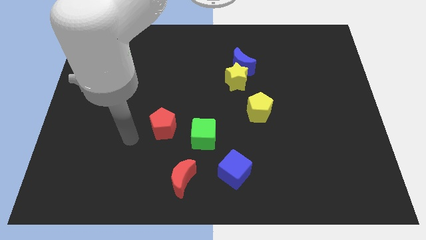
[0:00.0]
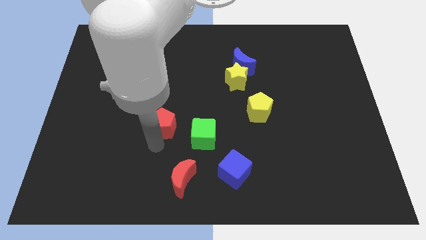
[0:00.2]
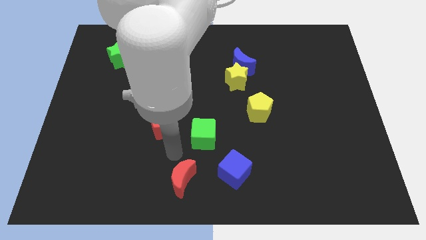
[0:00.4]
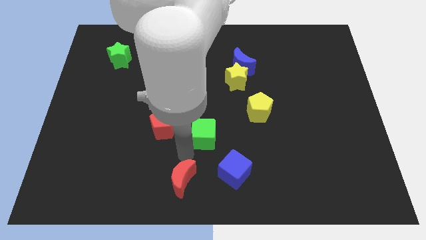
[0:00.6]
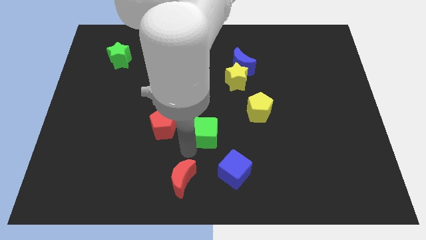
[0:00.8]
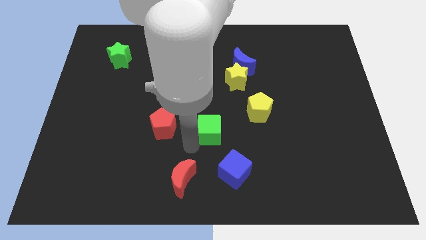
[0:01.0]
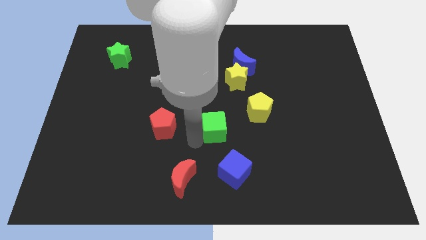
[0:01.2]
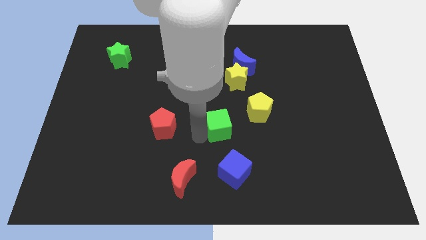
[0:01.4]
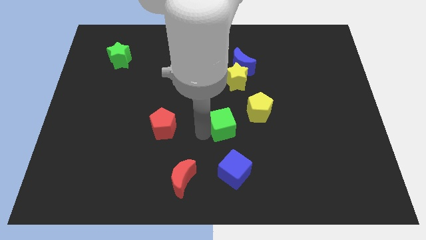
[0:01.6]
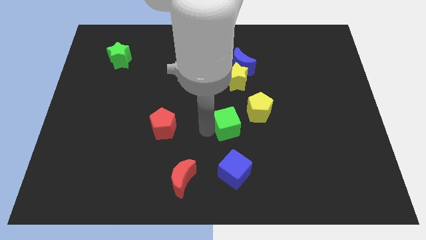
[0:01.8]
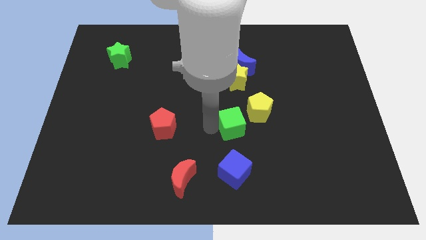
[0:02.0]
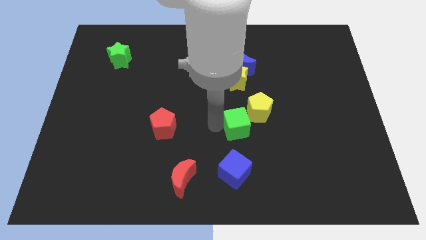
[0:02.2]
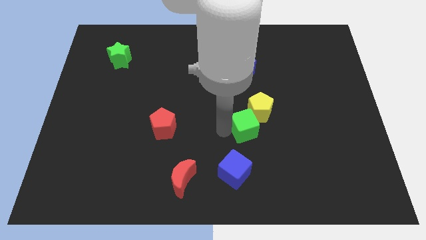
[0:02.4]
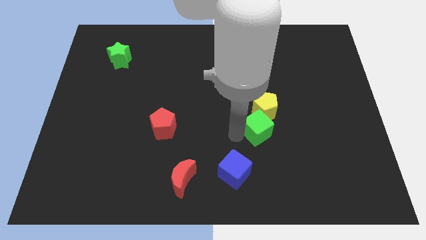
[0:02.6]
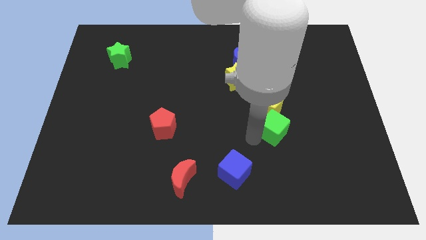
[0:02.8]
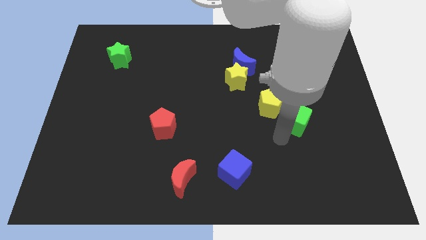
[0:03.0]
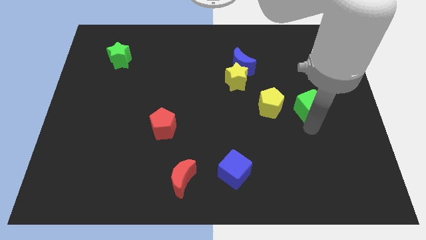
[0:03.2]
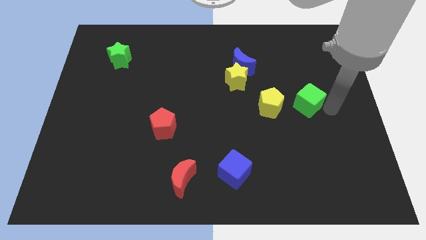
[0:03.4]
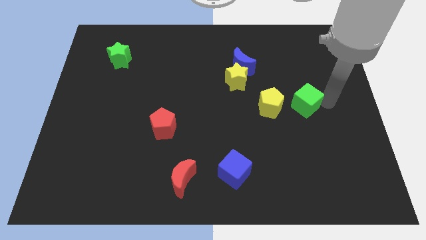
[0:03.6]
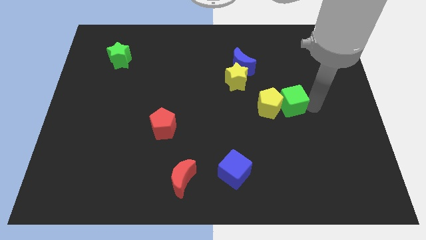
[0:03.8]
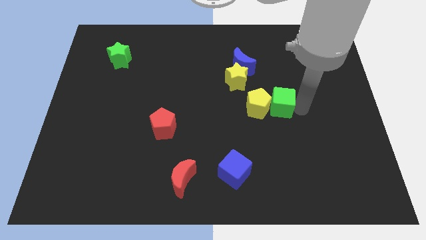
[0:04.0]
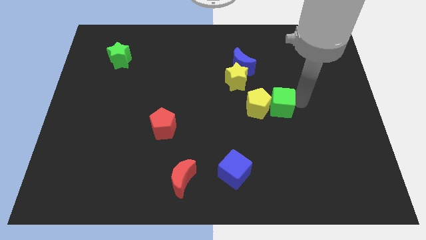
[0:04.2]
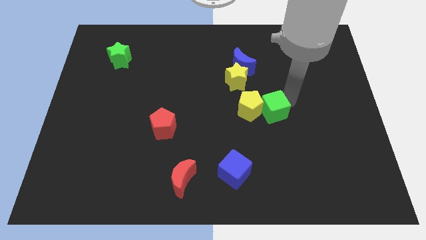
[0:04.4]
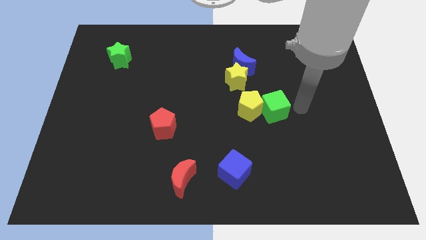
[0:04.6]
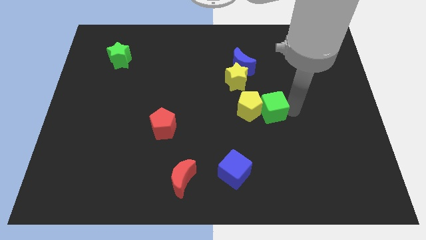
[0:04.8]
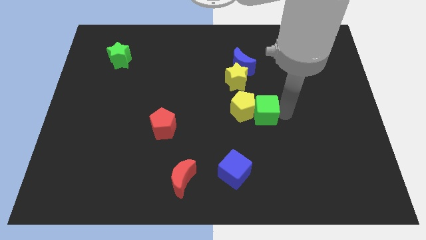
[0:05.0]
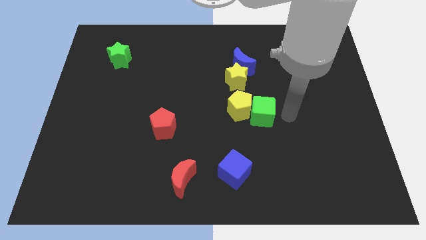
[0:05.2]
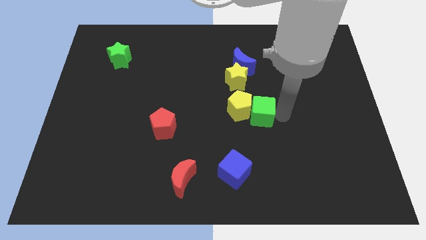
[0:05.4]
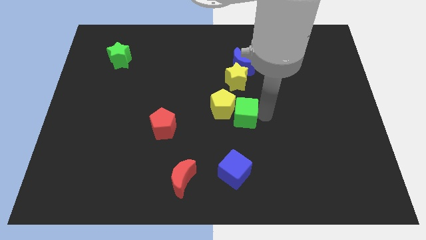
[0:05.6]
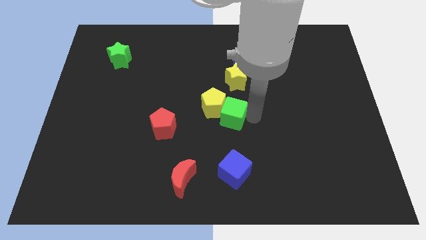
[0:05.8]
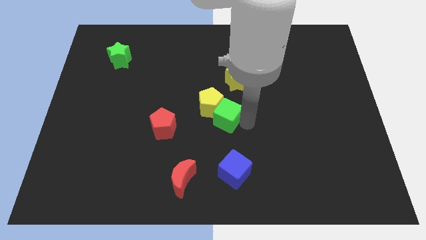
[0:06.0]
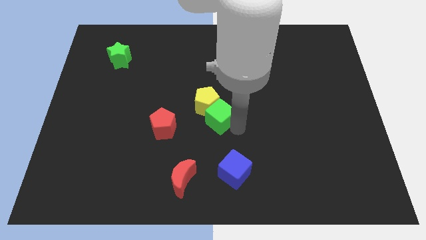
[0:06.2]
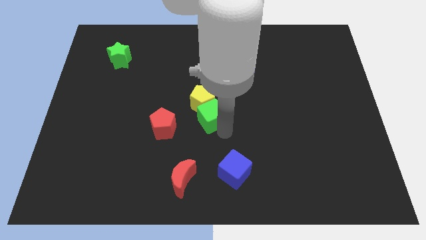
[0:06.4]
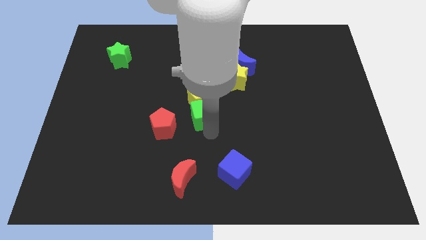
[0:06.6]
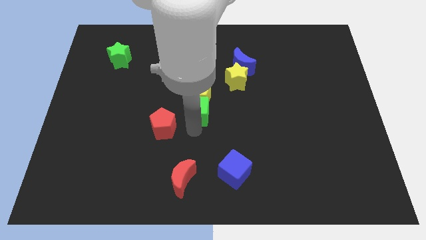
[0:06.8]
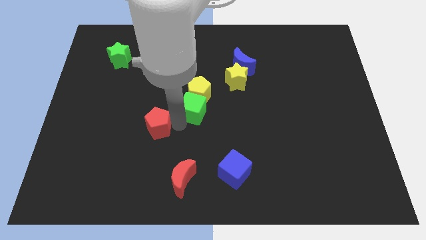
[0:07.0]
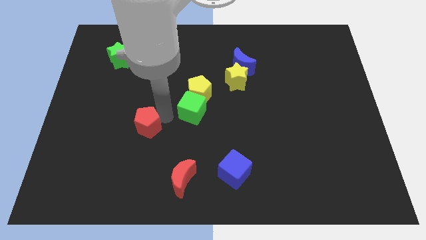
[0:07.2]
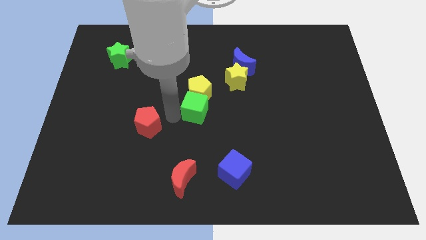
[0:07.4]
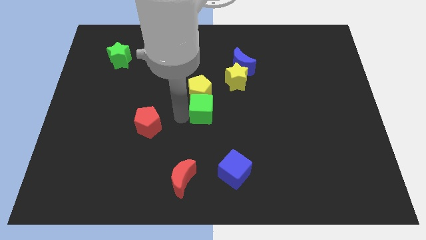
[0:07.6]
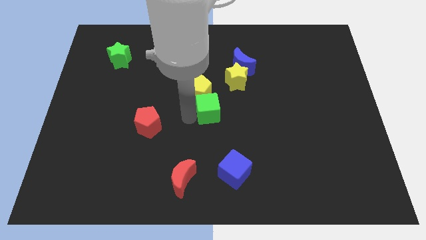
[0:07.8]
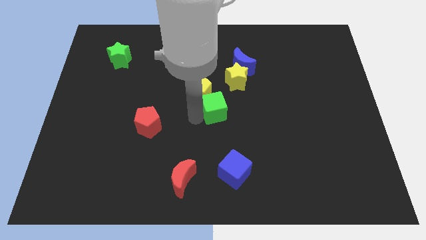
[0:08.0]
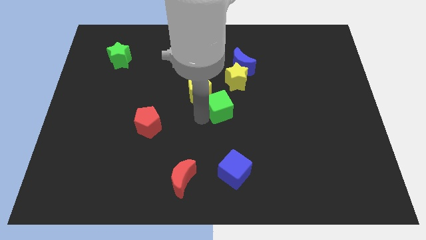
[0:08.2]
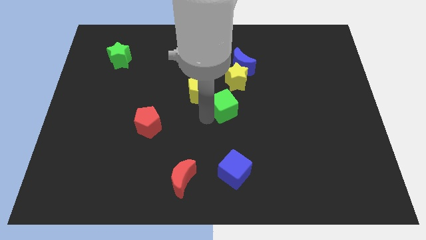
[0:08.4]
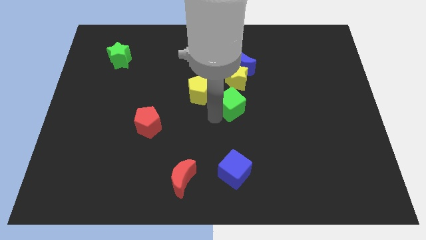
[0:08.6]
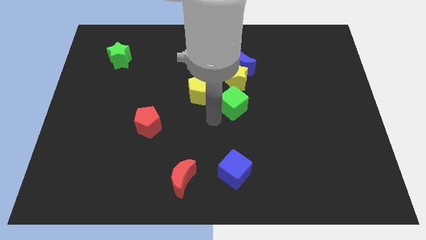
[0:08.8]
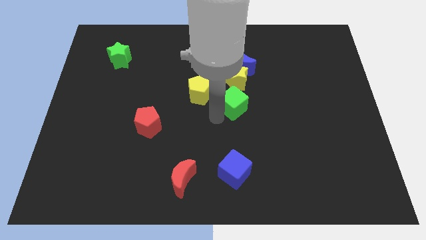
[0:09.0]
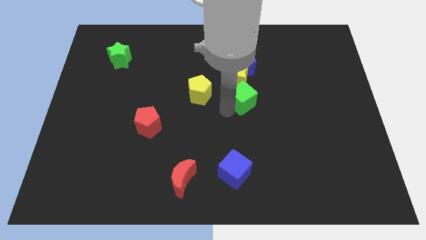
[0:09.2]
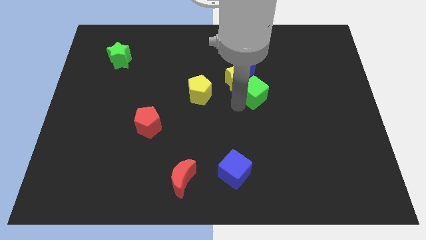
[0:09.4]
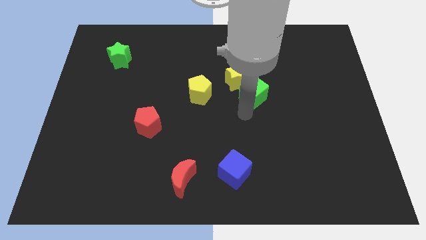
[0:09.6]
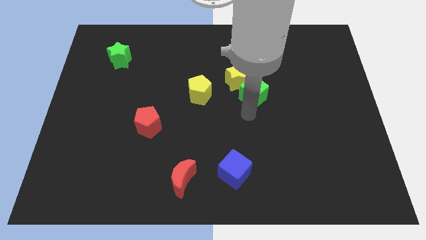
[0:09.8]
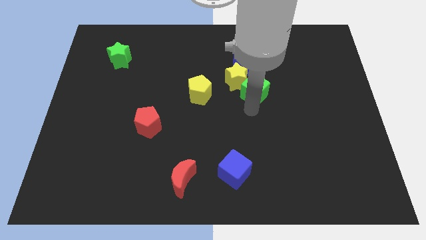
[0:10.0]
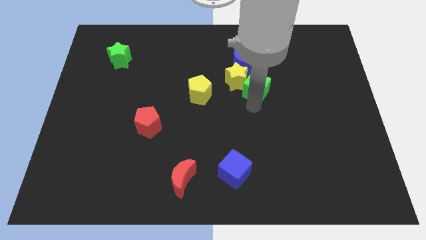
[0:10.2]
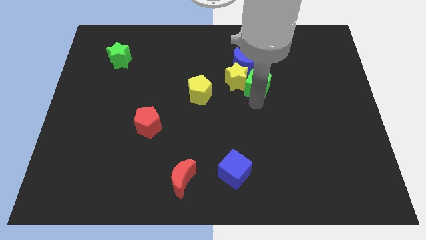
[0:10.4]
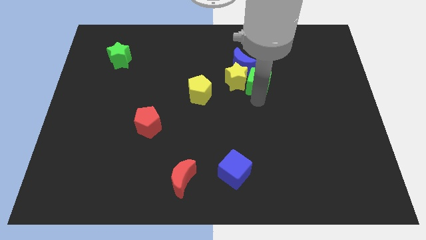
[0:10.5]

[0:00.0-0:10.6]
slide the green cube diagonally up and to the right of the yellow star

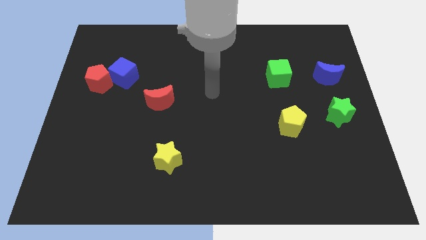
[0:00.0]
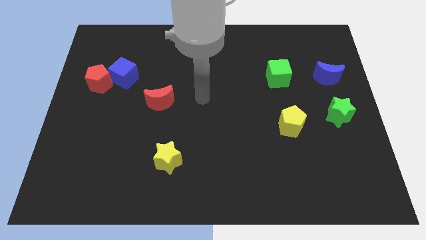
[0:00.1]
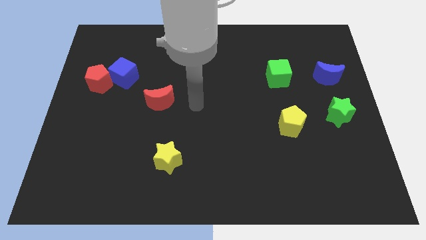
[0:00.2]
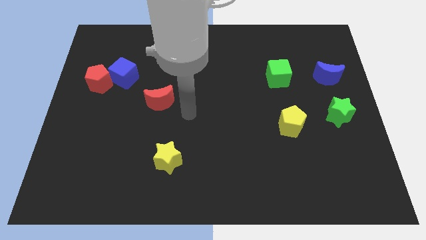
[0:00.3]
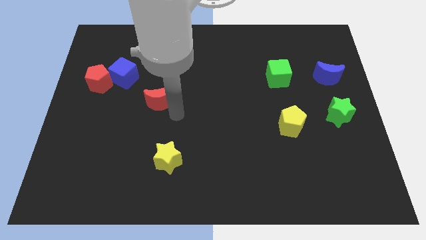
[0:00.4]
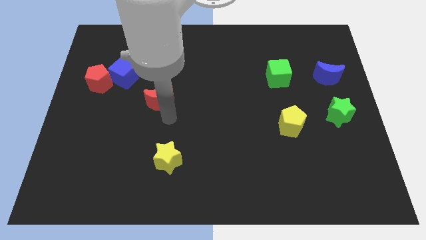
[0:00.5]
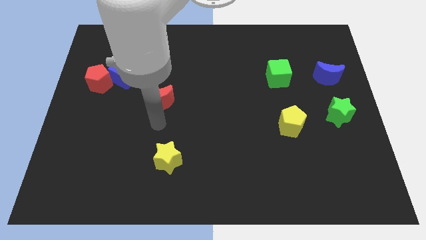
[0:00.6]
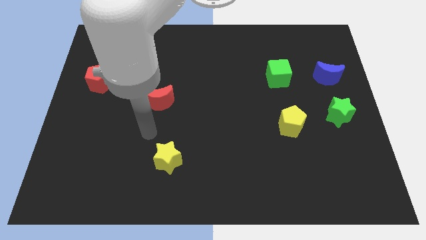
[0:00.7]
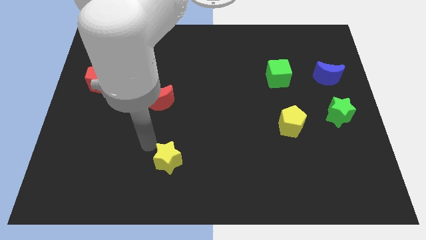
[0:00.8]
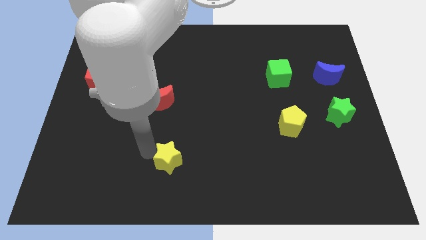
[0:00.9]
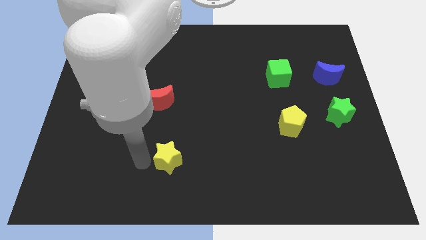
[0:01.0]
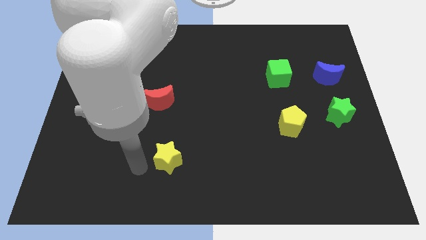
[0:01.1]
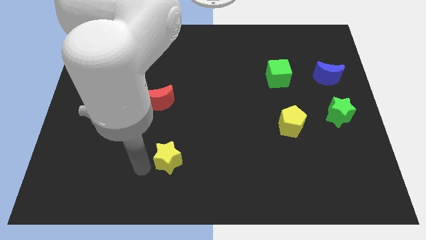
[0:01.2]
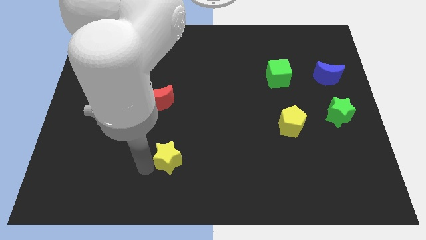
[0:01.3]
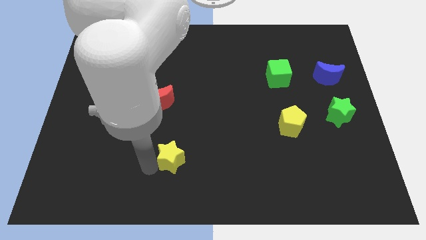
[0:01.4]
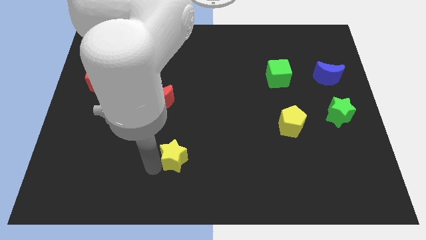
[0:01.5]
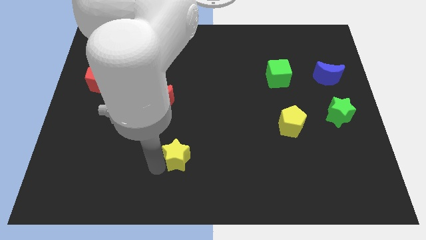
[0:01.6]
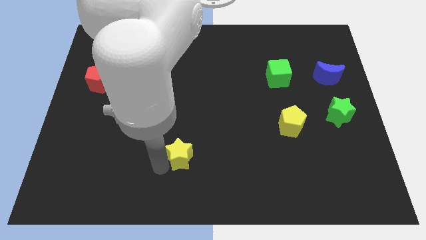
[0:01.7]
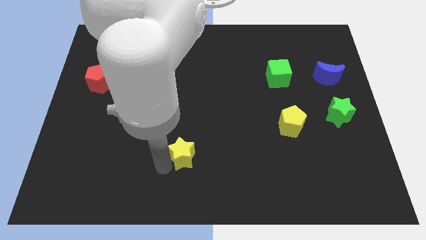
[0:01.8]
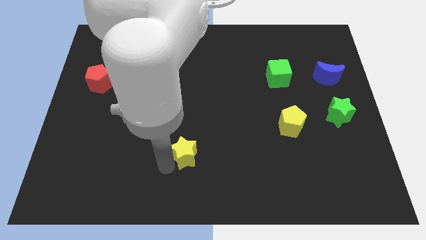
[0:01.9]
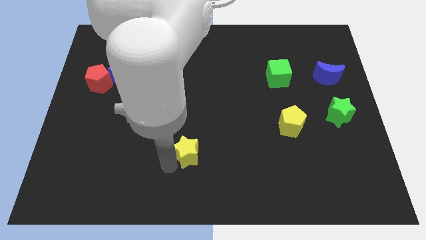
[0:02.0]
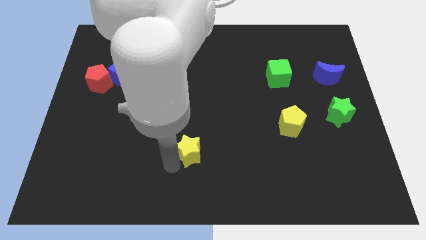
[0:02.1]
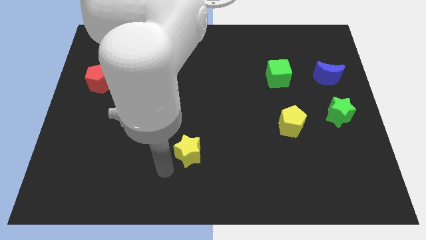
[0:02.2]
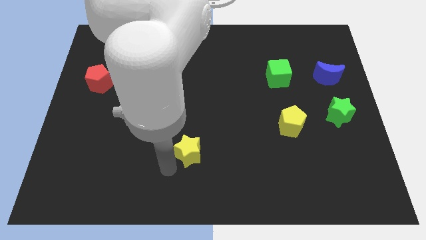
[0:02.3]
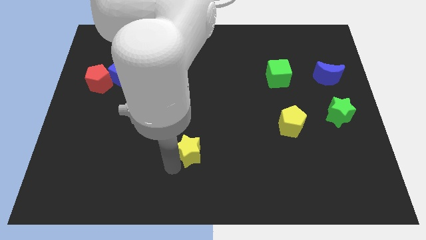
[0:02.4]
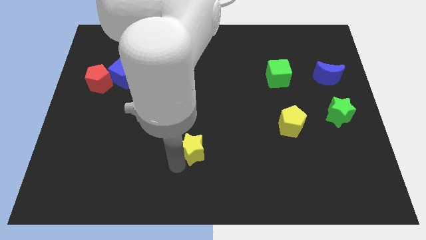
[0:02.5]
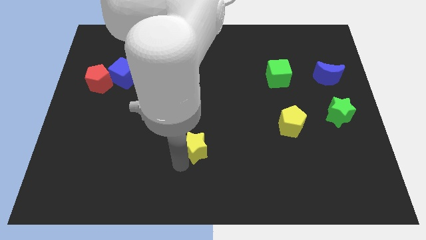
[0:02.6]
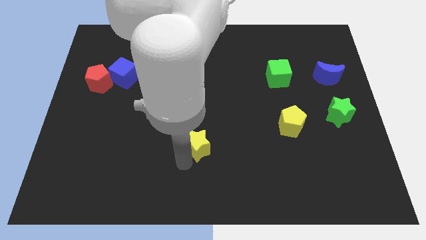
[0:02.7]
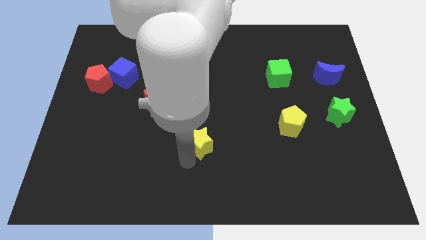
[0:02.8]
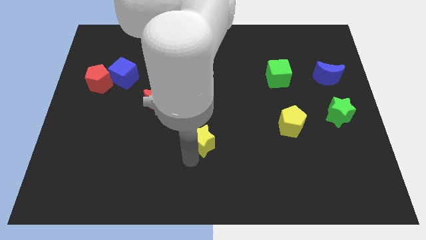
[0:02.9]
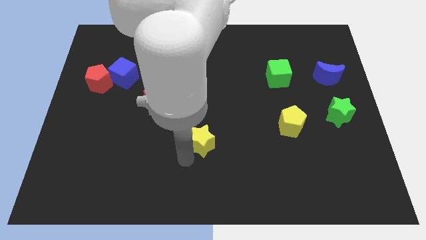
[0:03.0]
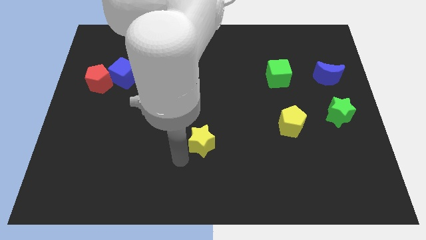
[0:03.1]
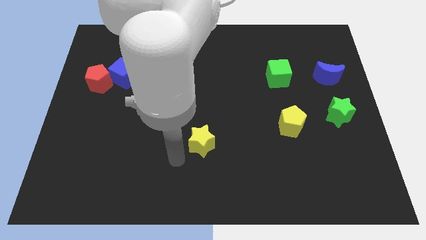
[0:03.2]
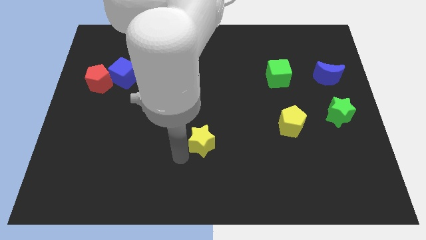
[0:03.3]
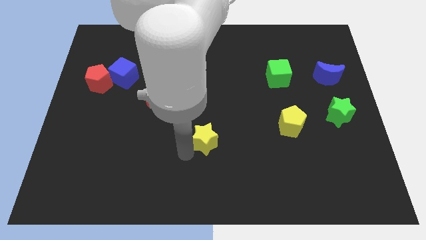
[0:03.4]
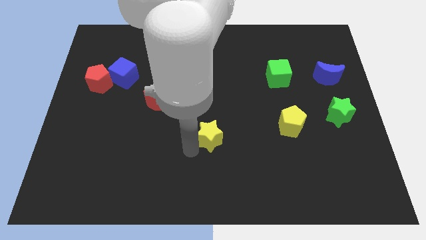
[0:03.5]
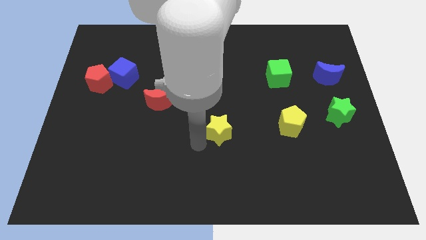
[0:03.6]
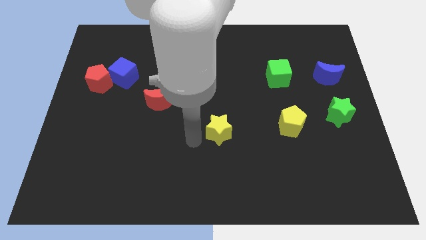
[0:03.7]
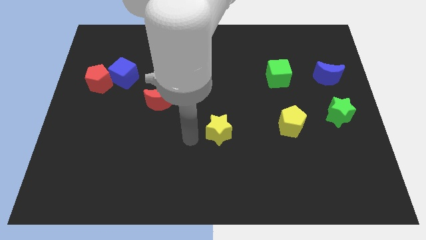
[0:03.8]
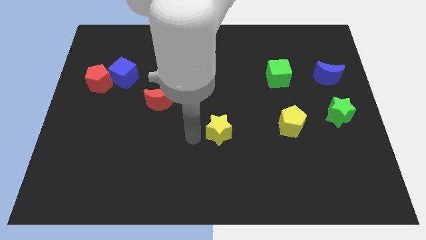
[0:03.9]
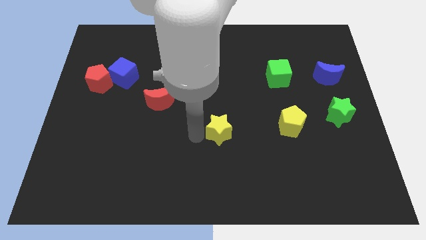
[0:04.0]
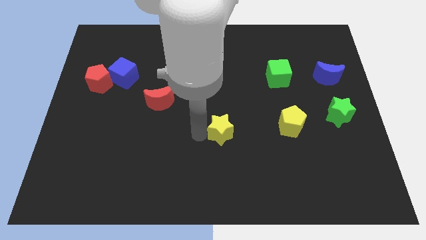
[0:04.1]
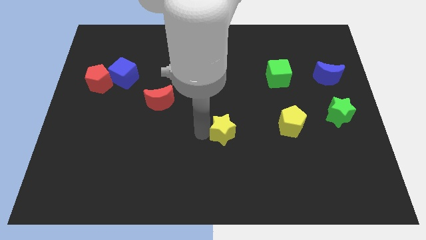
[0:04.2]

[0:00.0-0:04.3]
move the yellow star to the left of the yellow pentagon
